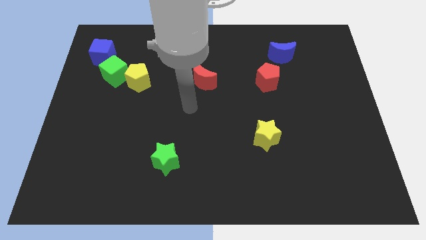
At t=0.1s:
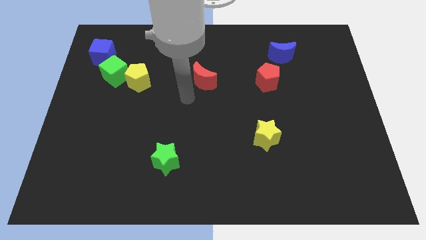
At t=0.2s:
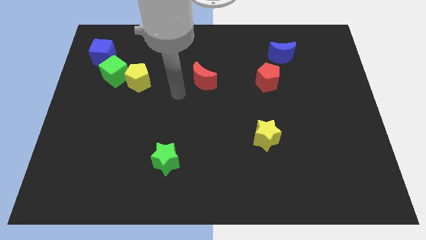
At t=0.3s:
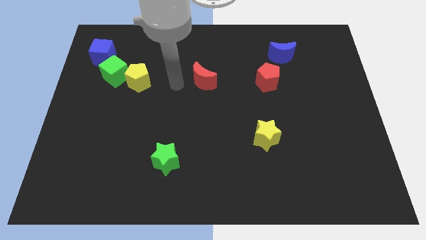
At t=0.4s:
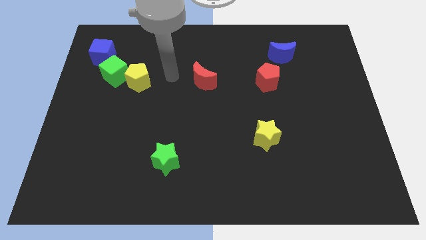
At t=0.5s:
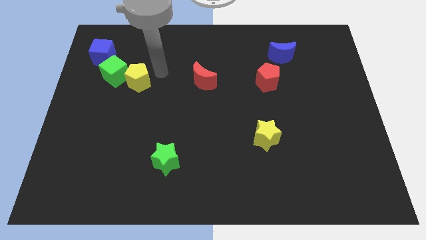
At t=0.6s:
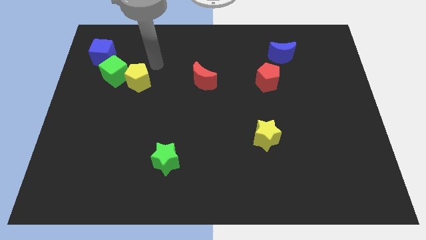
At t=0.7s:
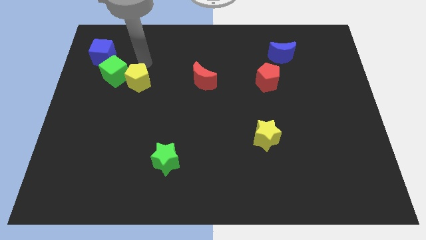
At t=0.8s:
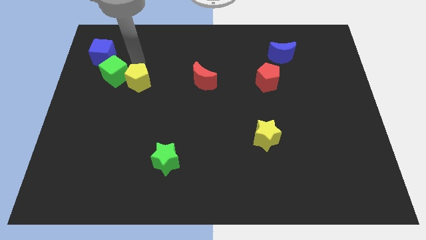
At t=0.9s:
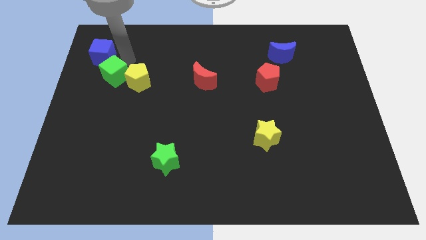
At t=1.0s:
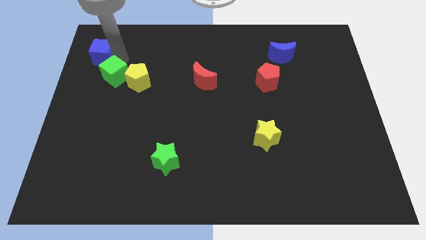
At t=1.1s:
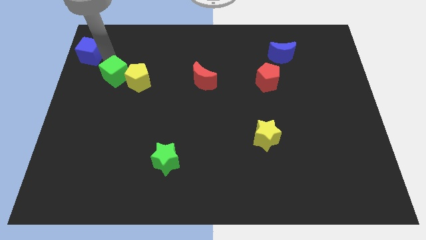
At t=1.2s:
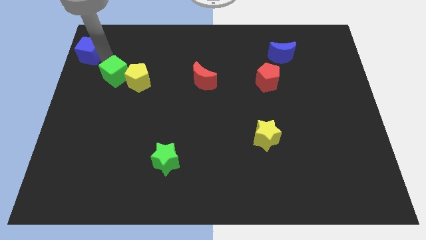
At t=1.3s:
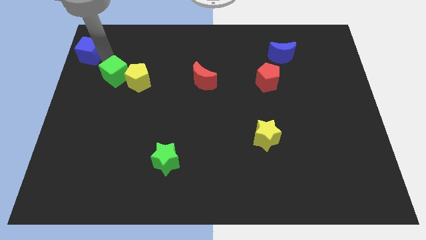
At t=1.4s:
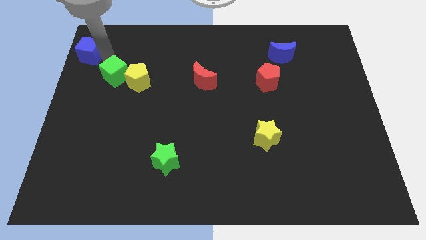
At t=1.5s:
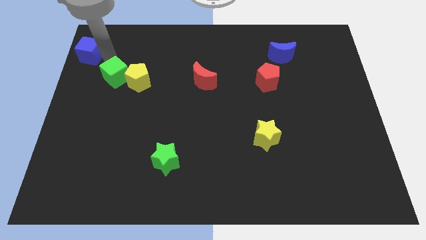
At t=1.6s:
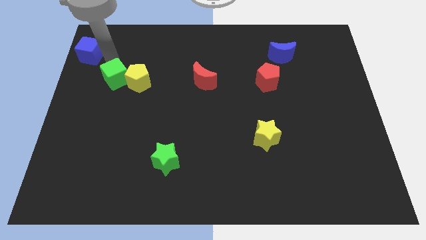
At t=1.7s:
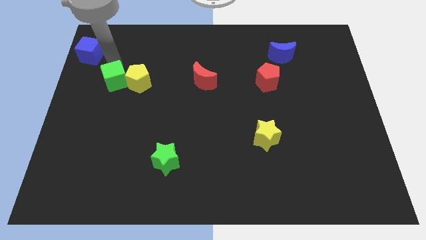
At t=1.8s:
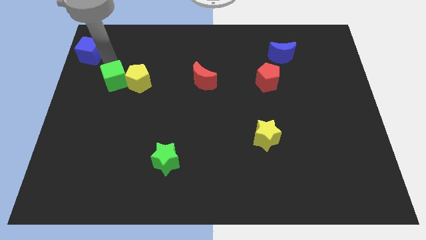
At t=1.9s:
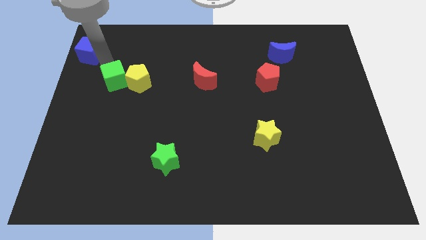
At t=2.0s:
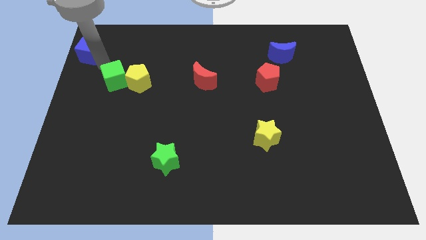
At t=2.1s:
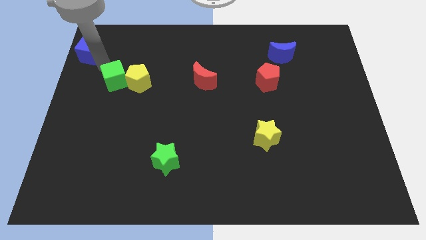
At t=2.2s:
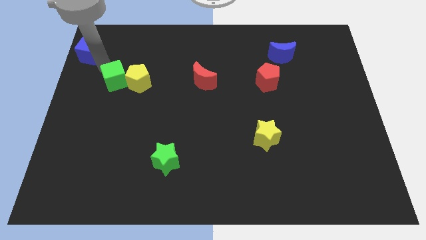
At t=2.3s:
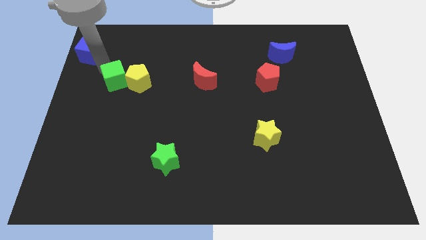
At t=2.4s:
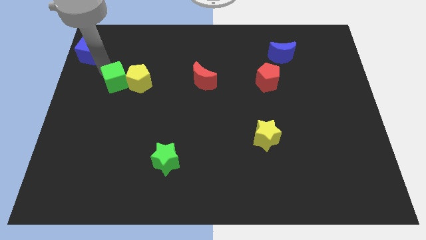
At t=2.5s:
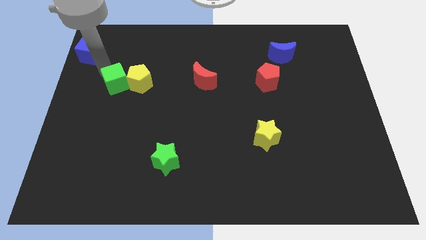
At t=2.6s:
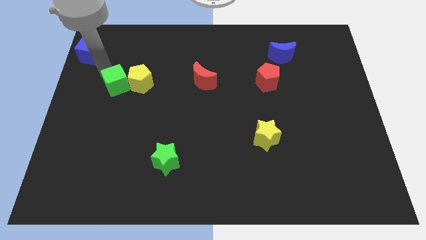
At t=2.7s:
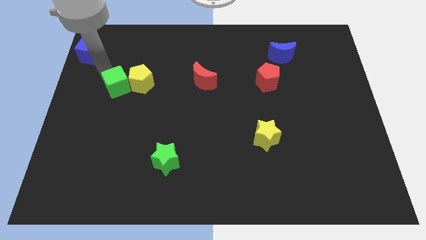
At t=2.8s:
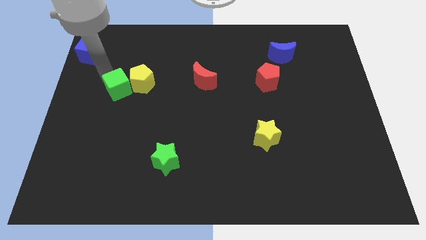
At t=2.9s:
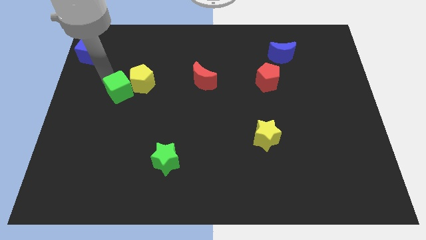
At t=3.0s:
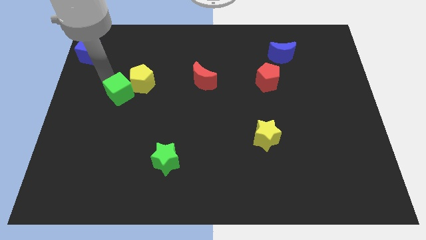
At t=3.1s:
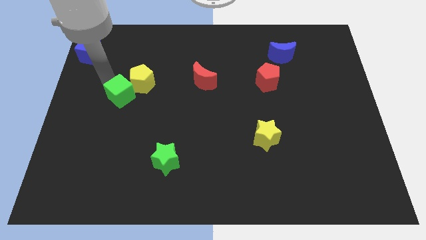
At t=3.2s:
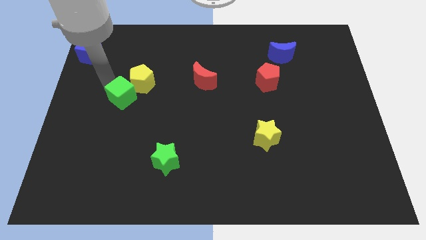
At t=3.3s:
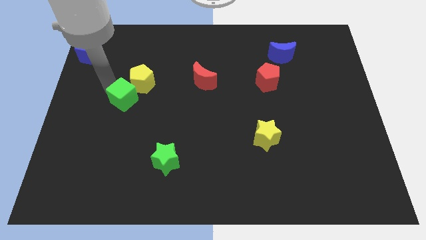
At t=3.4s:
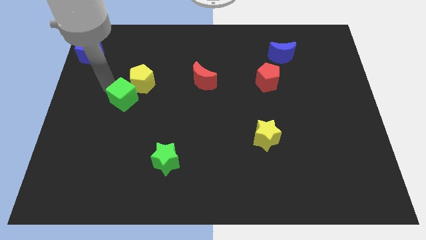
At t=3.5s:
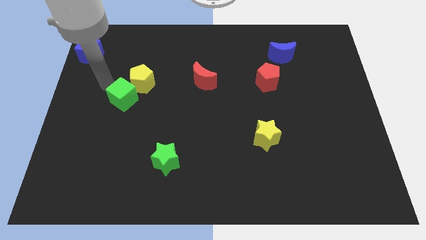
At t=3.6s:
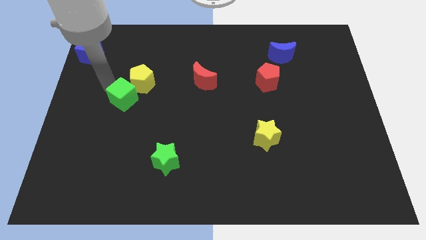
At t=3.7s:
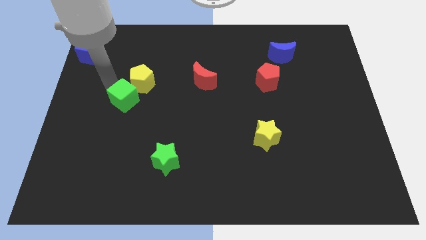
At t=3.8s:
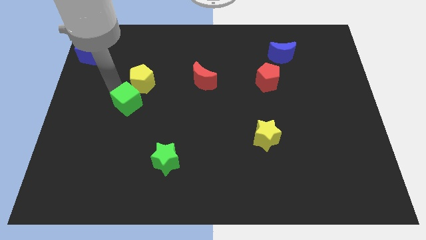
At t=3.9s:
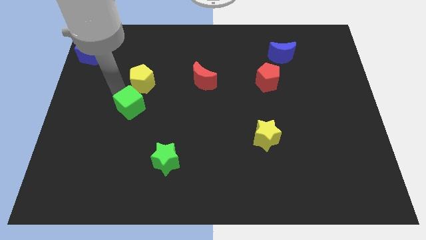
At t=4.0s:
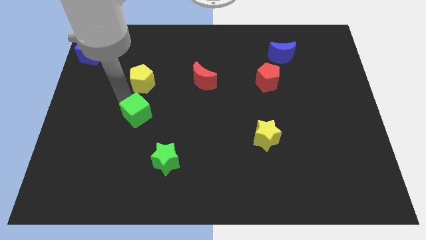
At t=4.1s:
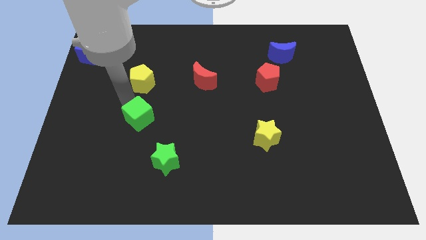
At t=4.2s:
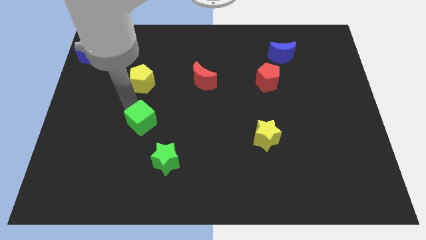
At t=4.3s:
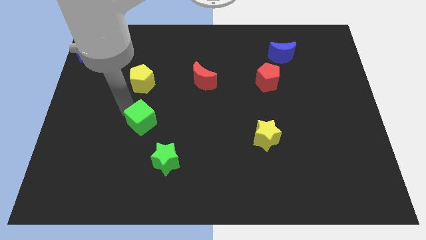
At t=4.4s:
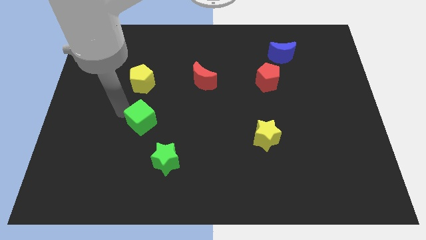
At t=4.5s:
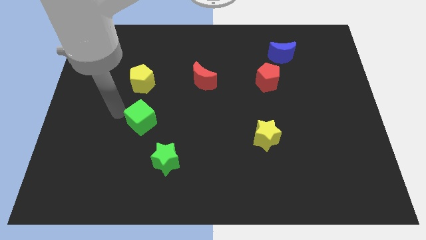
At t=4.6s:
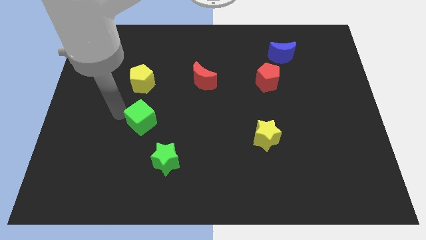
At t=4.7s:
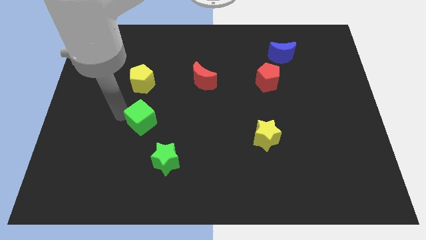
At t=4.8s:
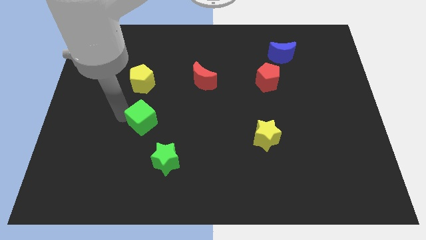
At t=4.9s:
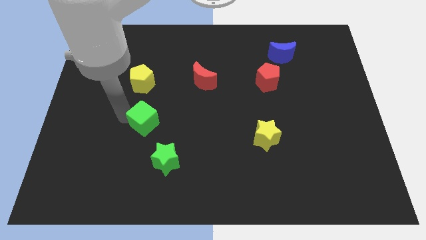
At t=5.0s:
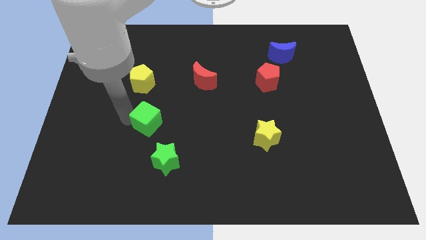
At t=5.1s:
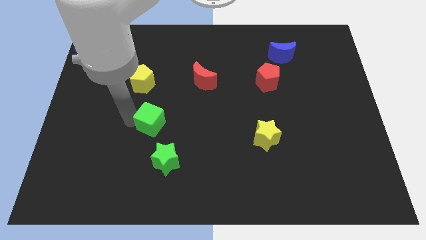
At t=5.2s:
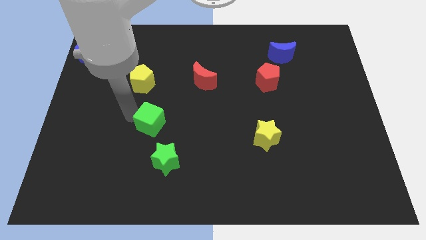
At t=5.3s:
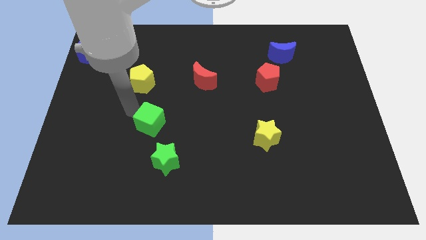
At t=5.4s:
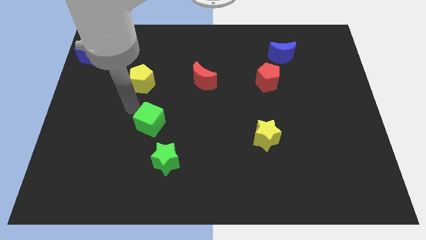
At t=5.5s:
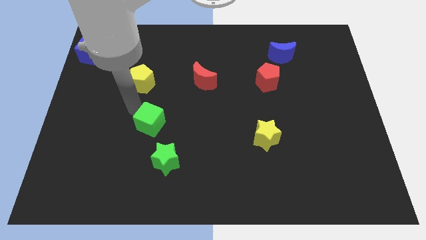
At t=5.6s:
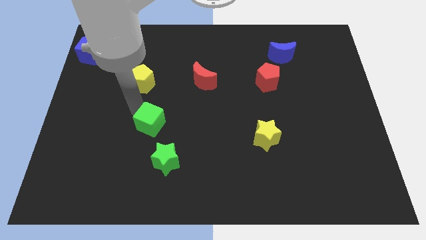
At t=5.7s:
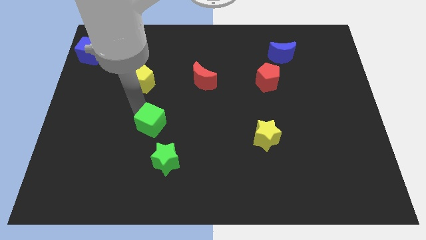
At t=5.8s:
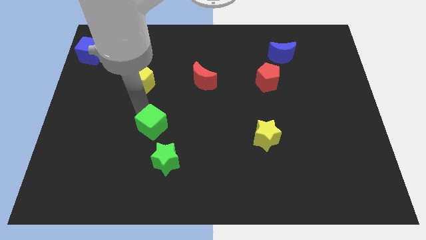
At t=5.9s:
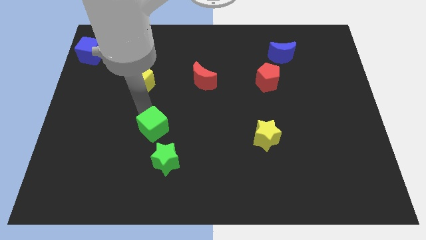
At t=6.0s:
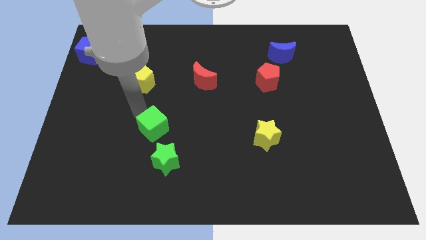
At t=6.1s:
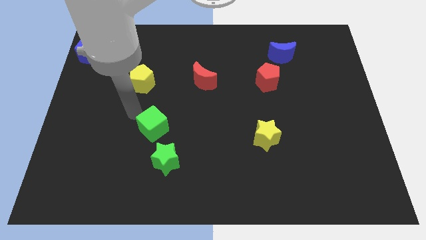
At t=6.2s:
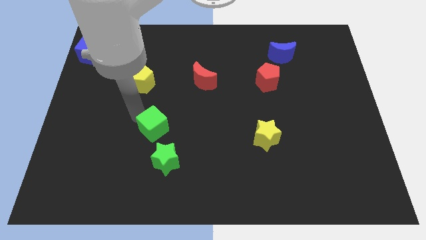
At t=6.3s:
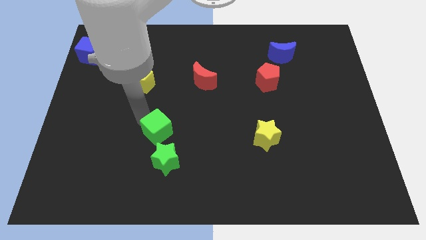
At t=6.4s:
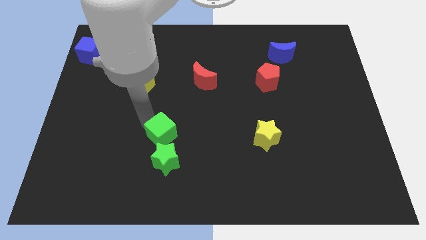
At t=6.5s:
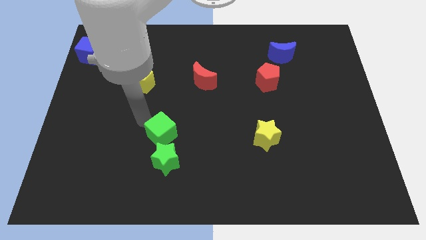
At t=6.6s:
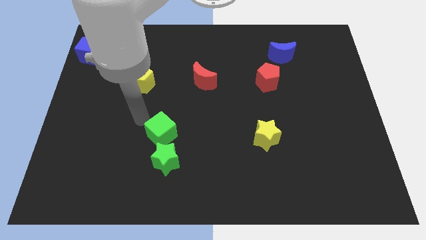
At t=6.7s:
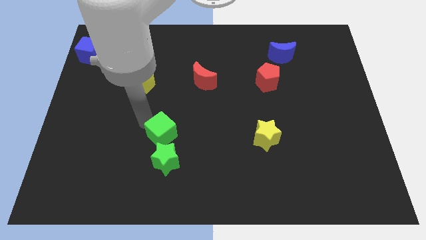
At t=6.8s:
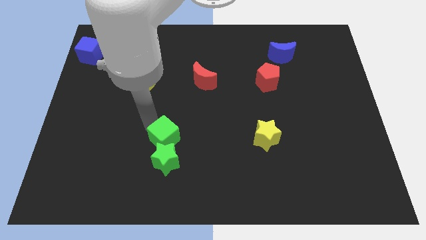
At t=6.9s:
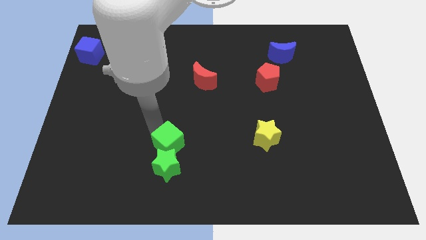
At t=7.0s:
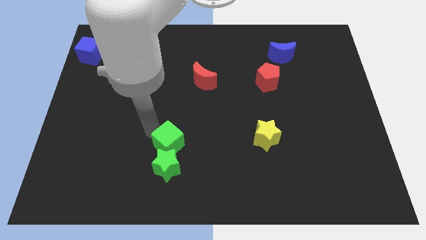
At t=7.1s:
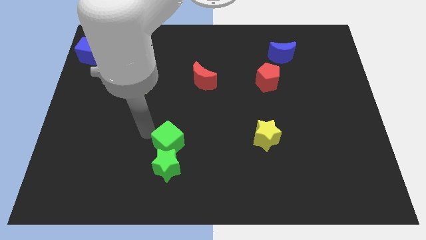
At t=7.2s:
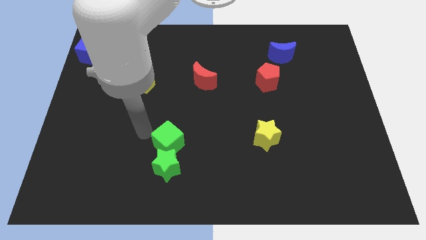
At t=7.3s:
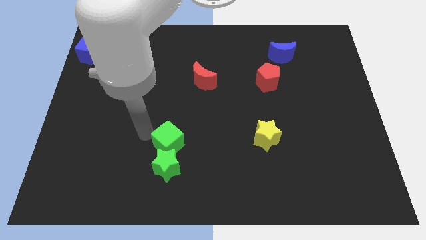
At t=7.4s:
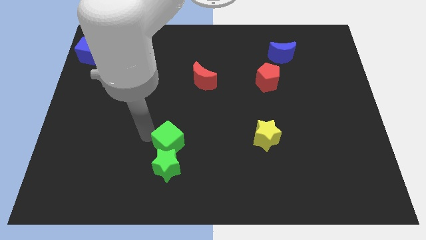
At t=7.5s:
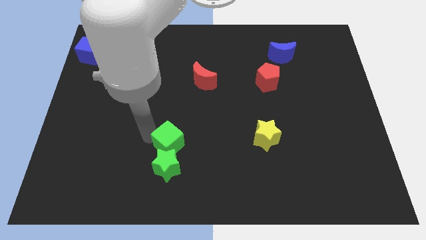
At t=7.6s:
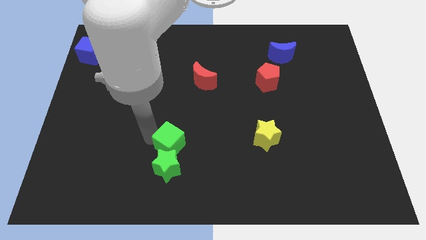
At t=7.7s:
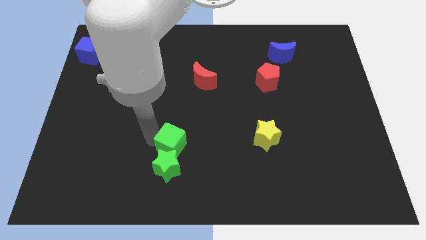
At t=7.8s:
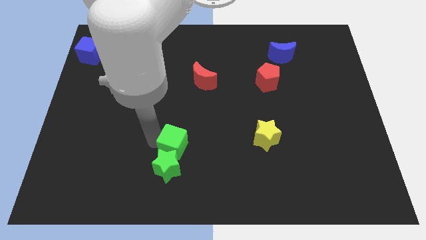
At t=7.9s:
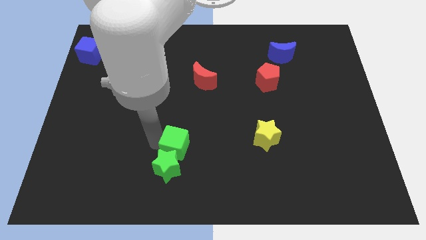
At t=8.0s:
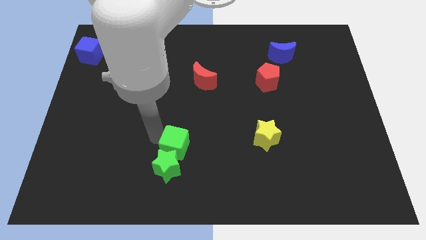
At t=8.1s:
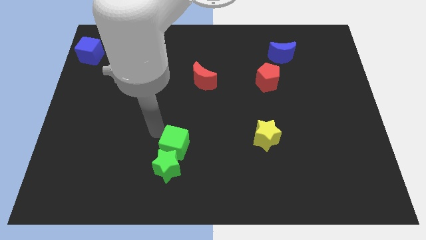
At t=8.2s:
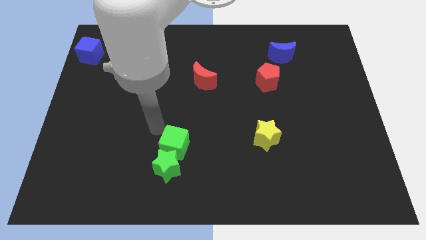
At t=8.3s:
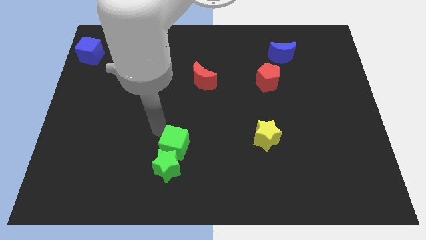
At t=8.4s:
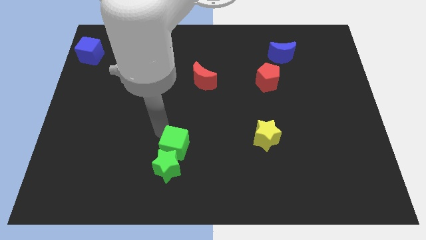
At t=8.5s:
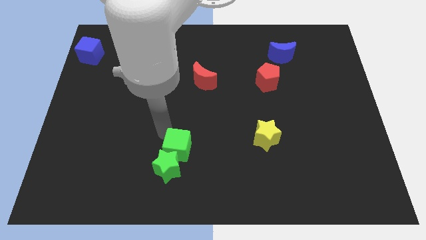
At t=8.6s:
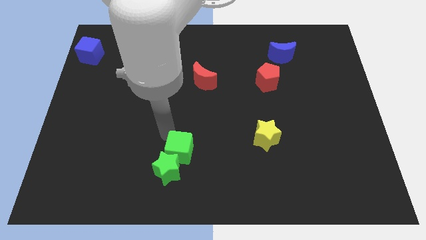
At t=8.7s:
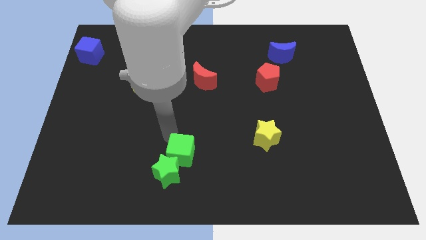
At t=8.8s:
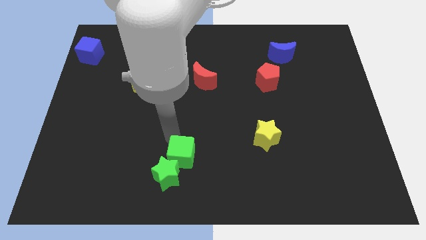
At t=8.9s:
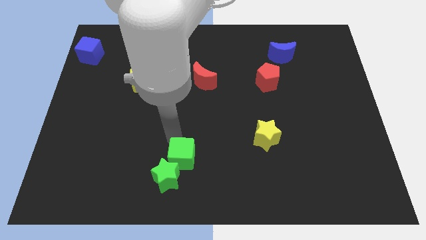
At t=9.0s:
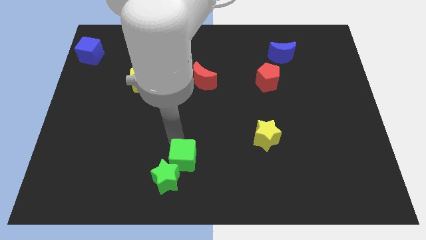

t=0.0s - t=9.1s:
move the green cube to the bottom
